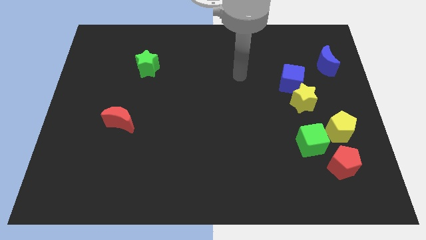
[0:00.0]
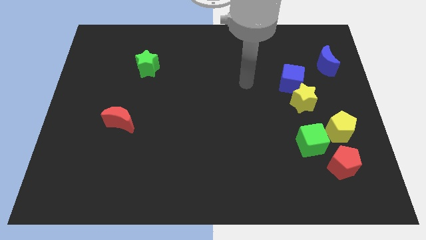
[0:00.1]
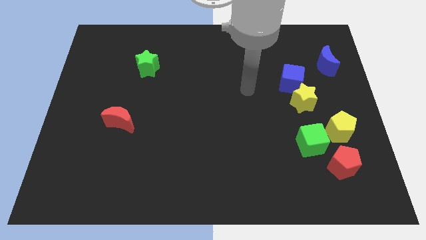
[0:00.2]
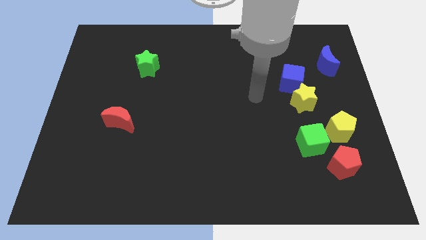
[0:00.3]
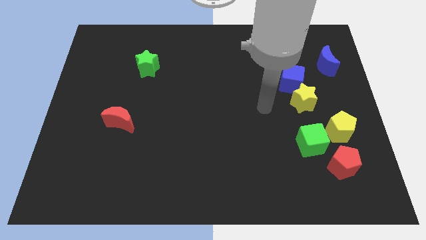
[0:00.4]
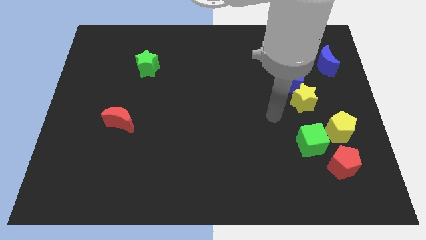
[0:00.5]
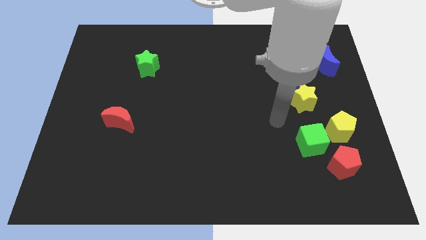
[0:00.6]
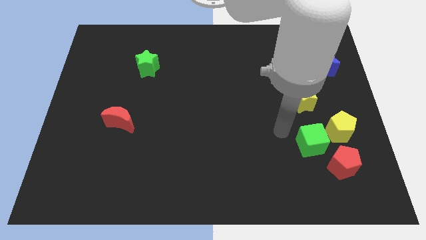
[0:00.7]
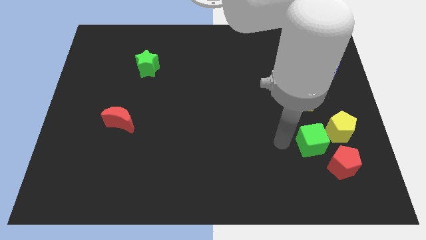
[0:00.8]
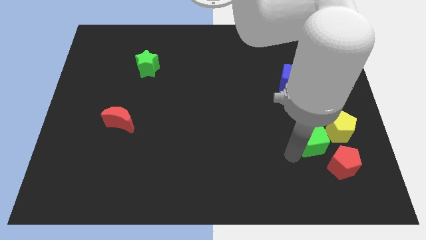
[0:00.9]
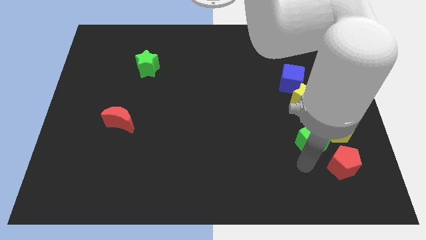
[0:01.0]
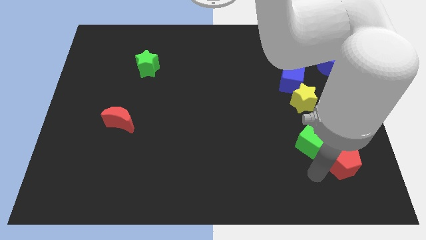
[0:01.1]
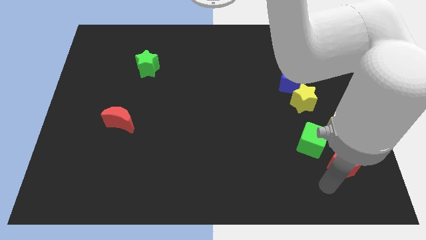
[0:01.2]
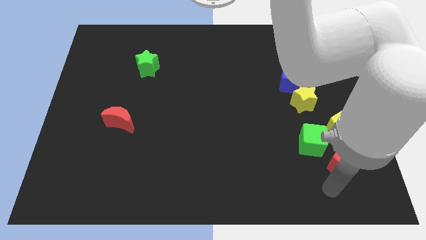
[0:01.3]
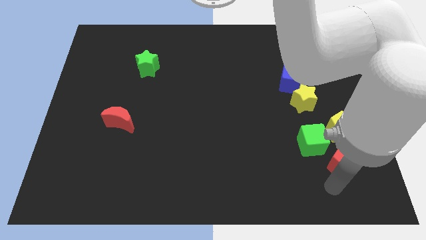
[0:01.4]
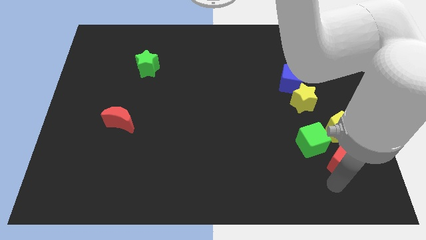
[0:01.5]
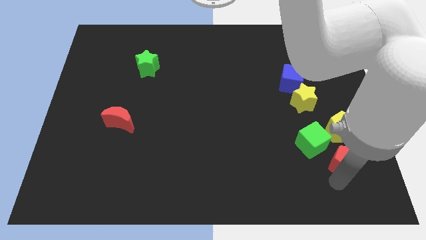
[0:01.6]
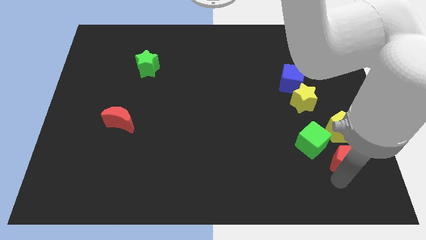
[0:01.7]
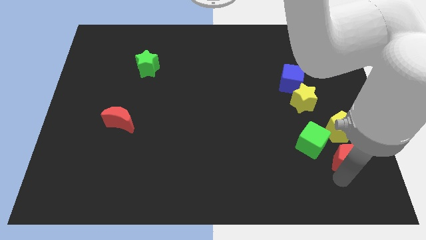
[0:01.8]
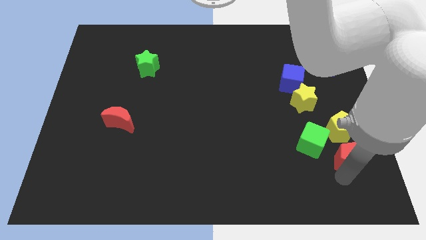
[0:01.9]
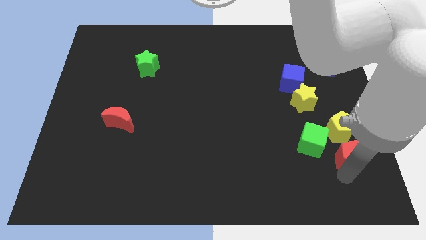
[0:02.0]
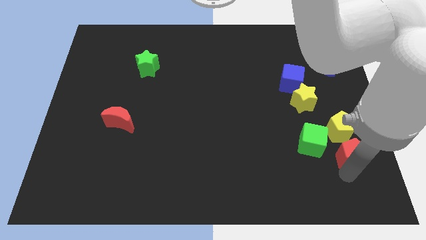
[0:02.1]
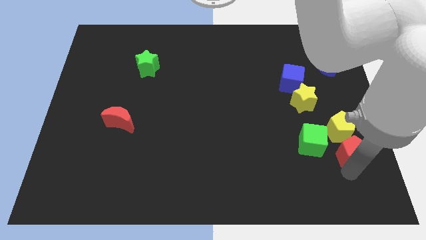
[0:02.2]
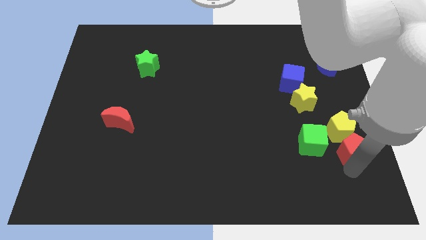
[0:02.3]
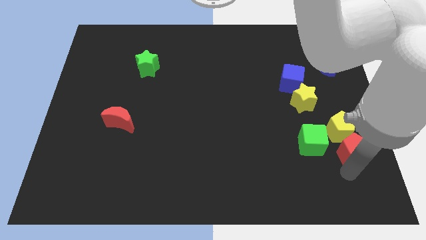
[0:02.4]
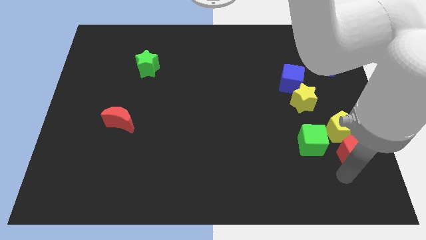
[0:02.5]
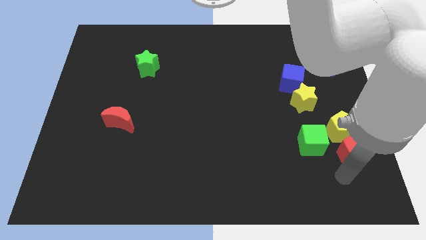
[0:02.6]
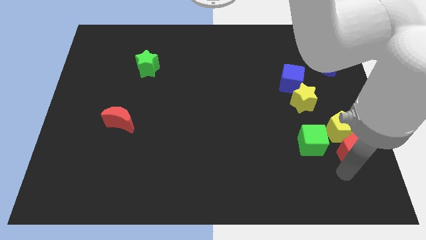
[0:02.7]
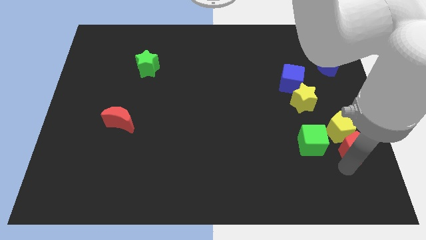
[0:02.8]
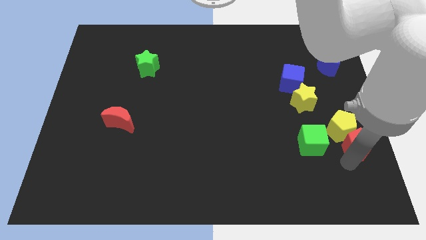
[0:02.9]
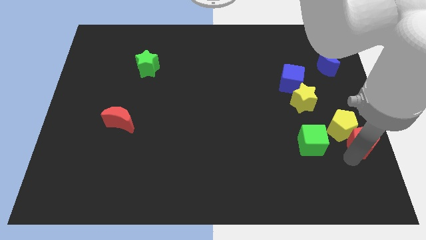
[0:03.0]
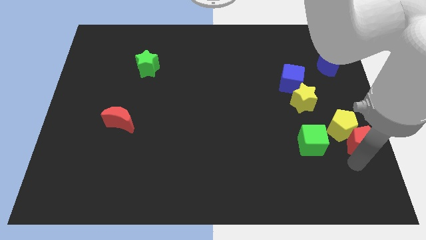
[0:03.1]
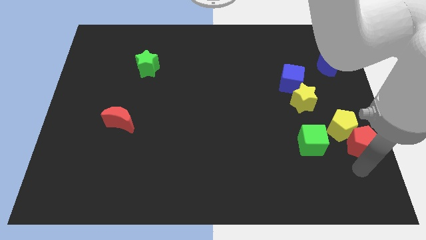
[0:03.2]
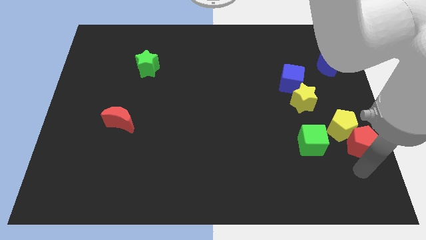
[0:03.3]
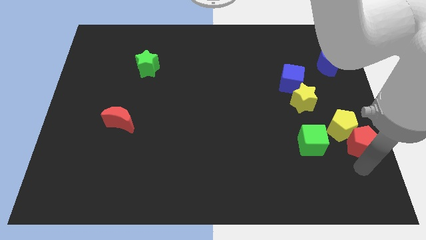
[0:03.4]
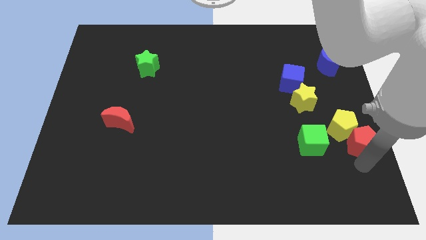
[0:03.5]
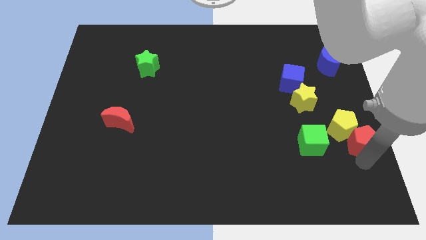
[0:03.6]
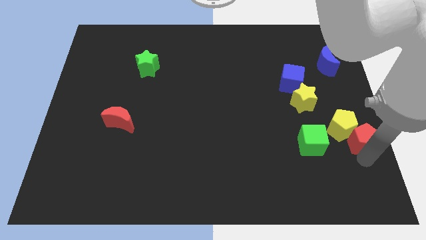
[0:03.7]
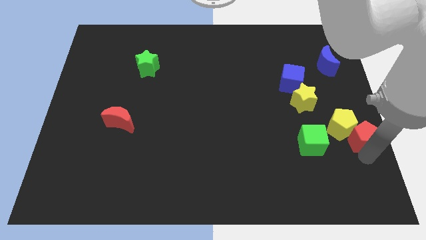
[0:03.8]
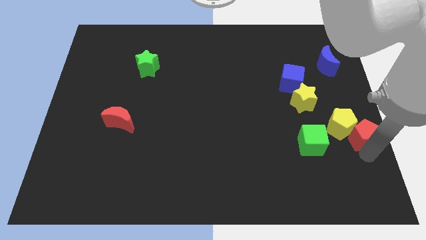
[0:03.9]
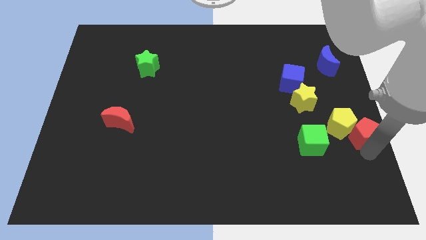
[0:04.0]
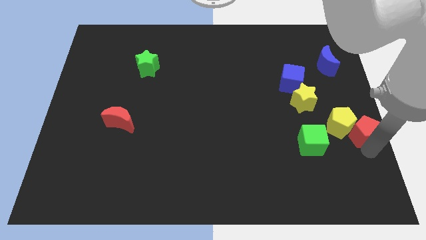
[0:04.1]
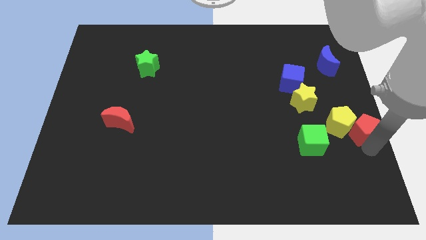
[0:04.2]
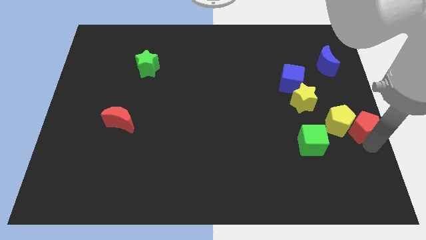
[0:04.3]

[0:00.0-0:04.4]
move the red pentagon somewhat up

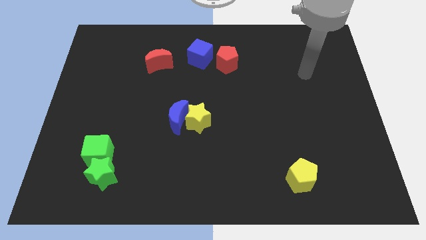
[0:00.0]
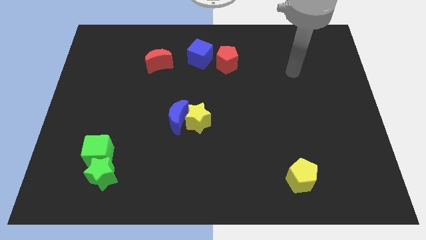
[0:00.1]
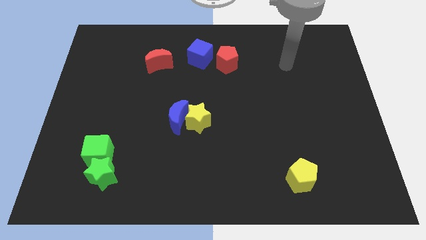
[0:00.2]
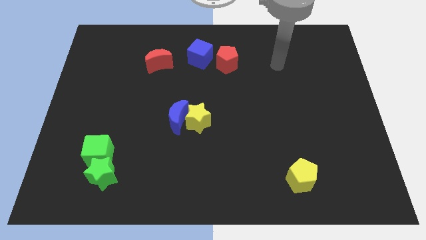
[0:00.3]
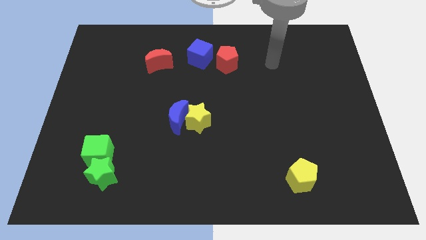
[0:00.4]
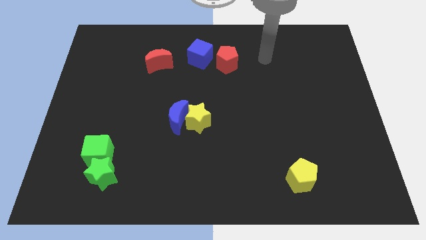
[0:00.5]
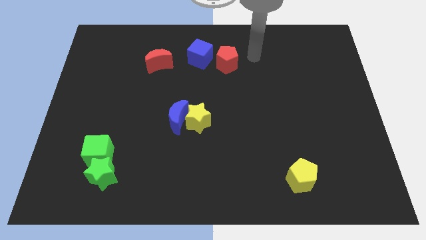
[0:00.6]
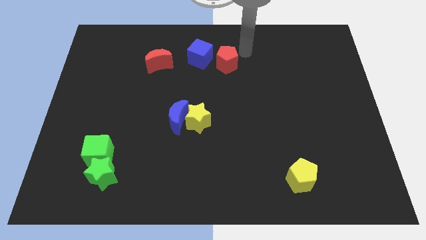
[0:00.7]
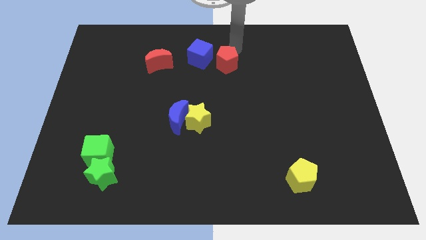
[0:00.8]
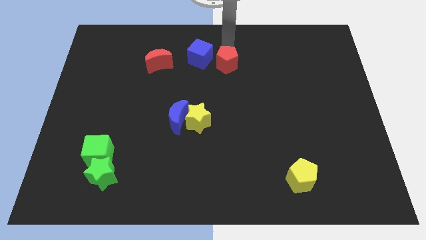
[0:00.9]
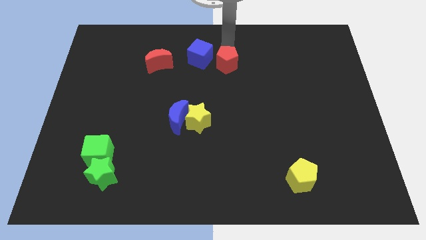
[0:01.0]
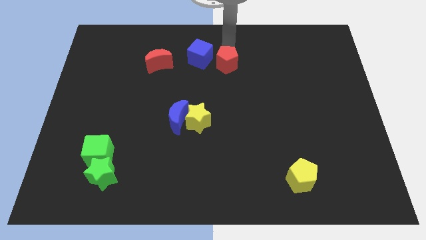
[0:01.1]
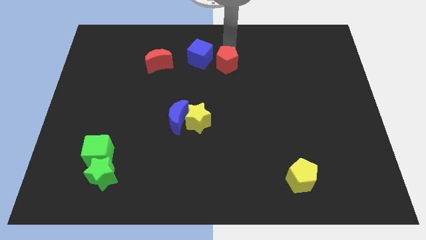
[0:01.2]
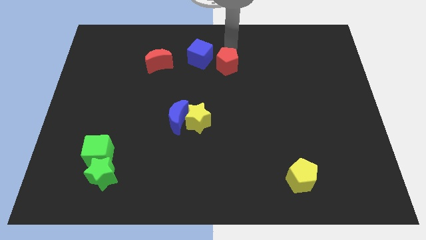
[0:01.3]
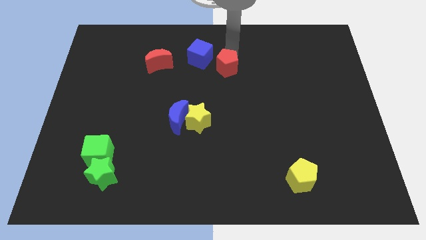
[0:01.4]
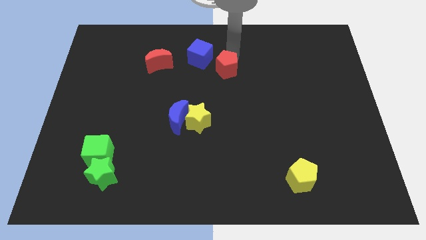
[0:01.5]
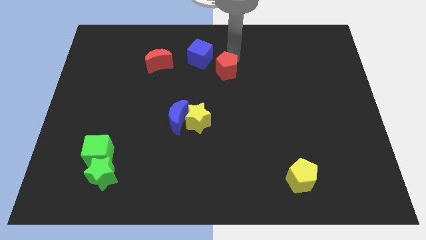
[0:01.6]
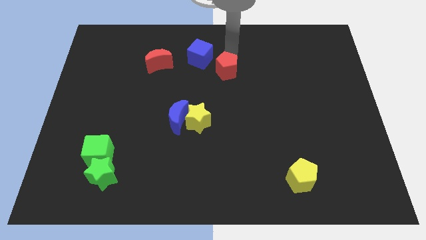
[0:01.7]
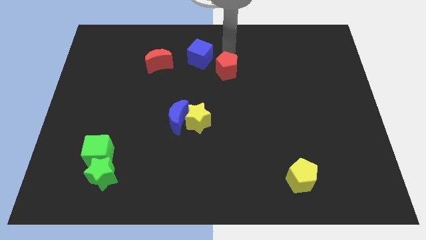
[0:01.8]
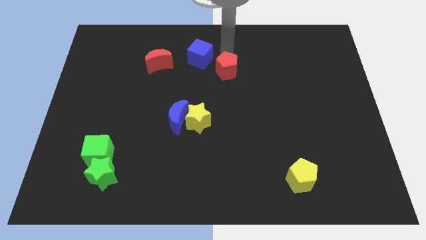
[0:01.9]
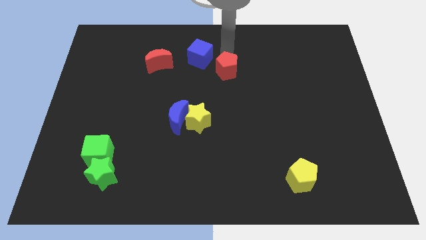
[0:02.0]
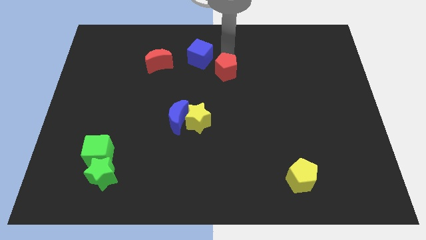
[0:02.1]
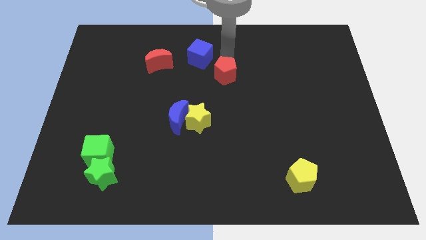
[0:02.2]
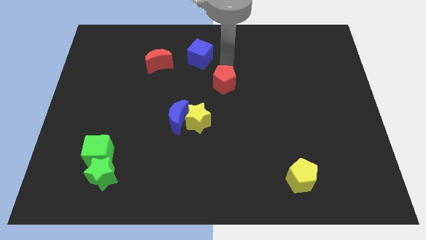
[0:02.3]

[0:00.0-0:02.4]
push the red pentagon somewhat downwards

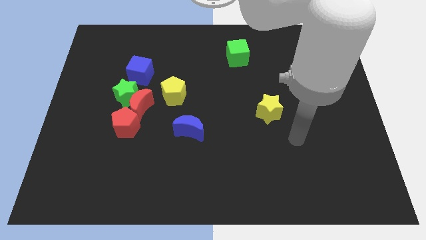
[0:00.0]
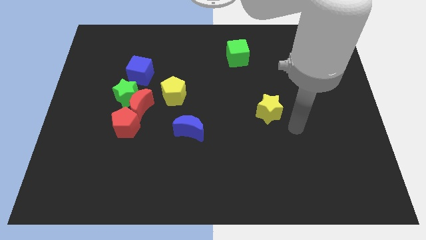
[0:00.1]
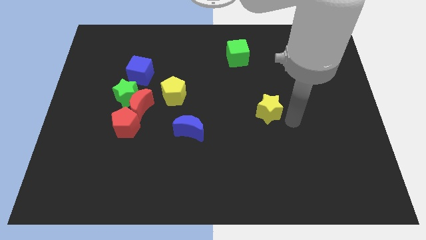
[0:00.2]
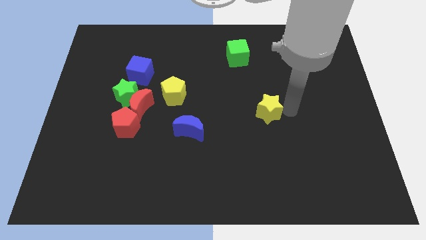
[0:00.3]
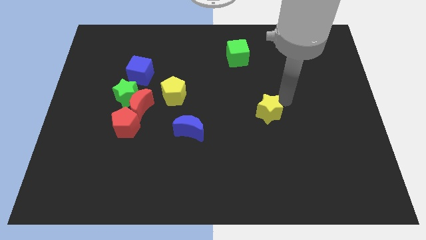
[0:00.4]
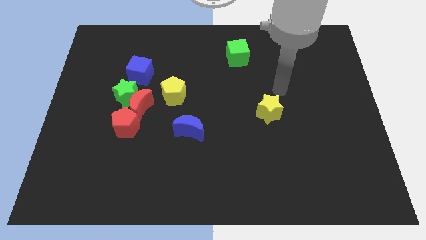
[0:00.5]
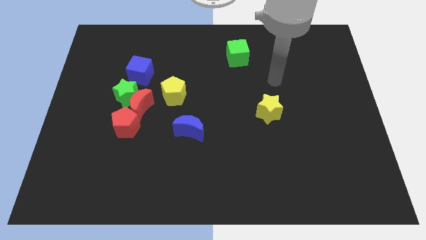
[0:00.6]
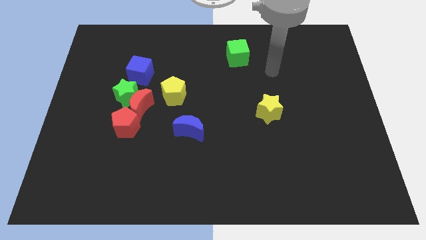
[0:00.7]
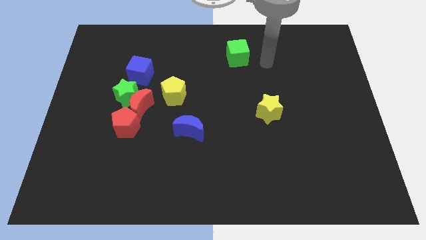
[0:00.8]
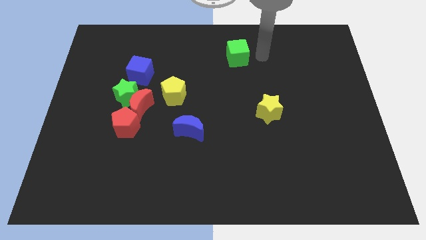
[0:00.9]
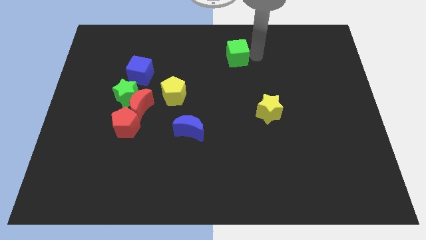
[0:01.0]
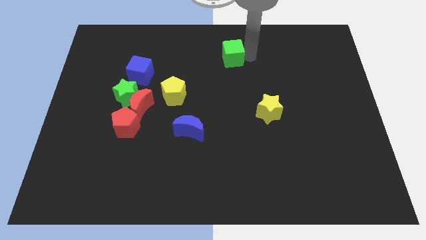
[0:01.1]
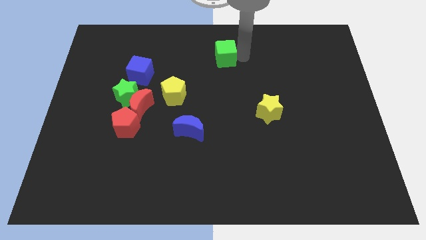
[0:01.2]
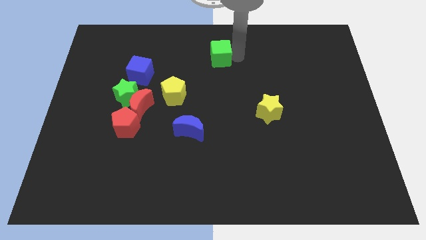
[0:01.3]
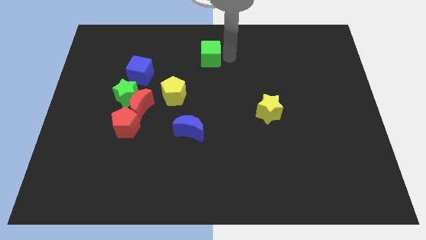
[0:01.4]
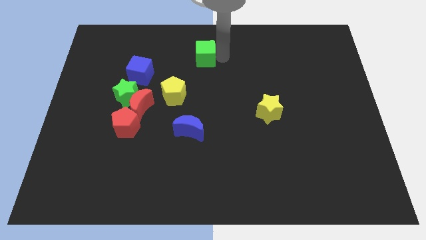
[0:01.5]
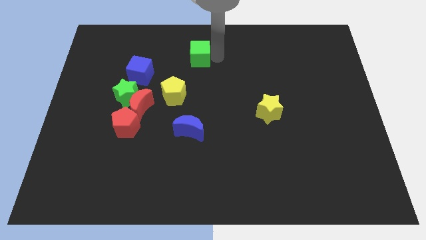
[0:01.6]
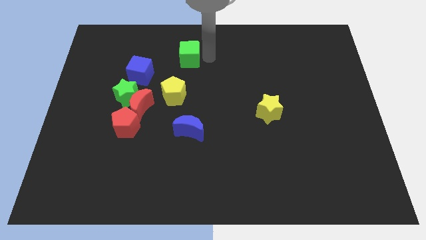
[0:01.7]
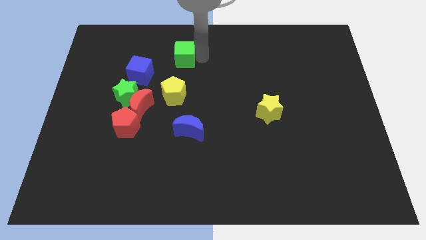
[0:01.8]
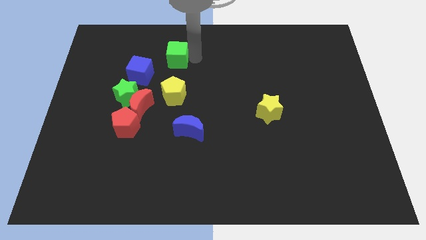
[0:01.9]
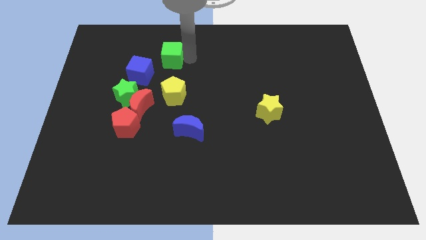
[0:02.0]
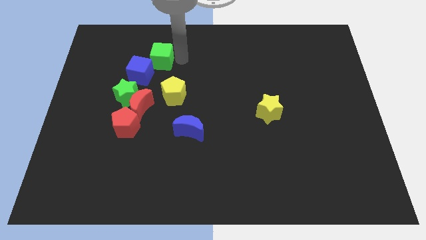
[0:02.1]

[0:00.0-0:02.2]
push the green cube to the left
